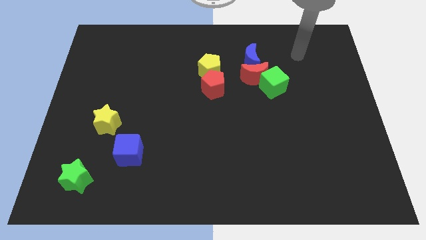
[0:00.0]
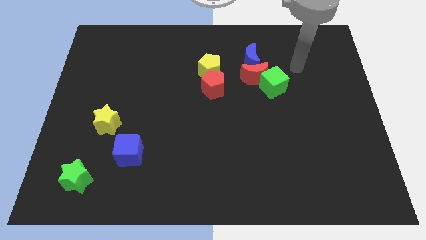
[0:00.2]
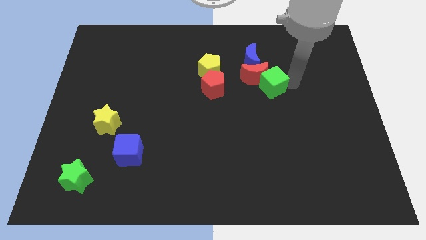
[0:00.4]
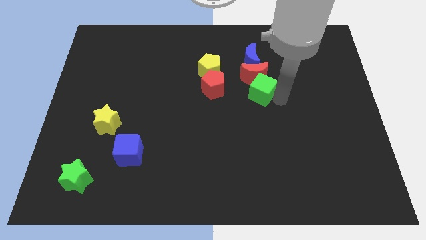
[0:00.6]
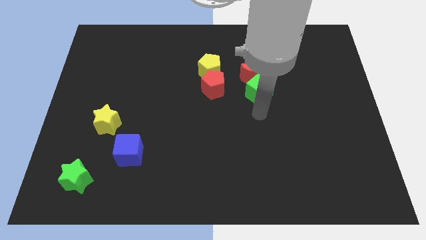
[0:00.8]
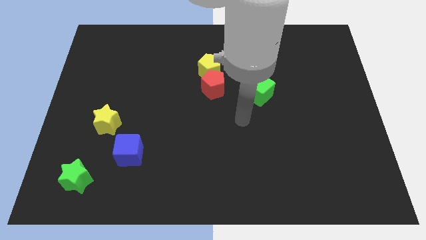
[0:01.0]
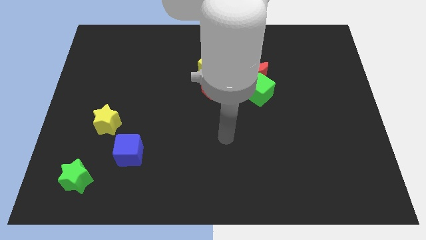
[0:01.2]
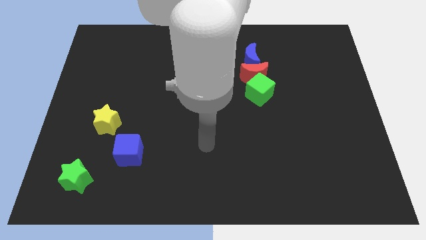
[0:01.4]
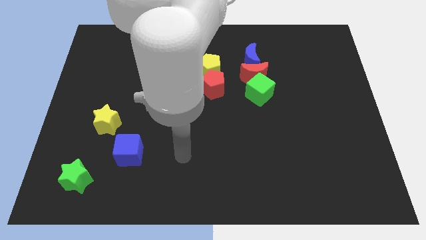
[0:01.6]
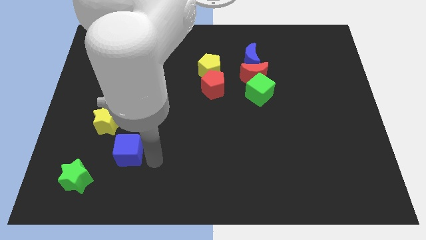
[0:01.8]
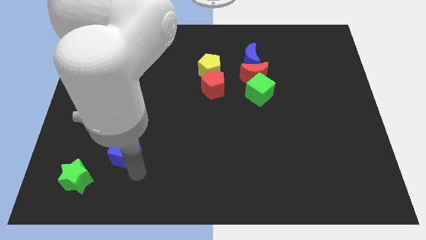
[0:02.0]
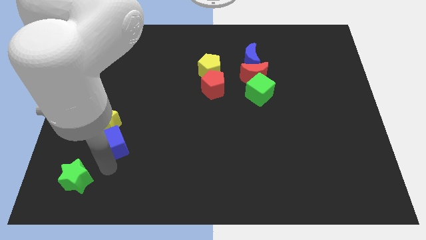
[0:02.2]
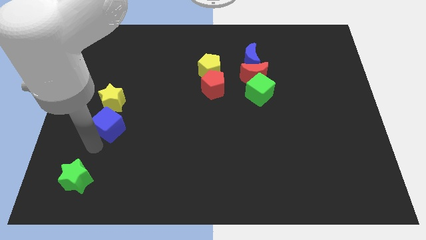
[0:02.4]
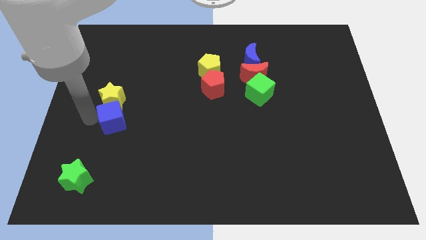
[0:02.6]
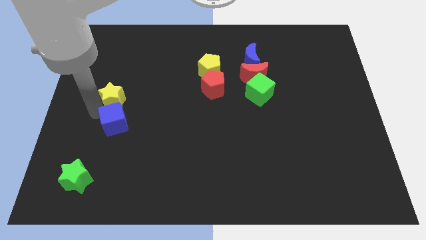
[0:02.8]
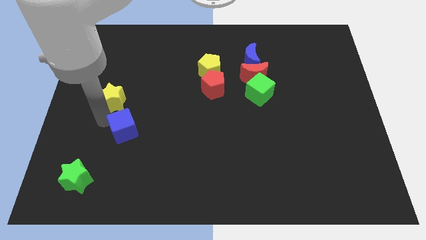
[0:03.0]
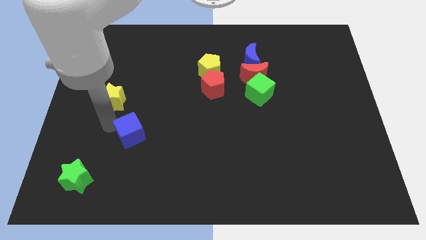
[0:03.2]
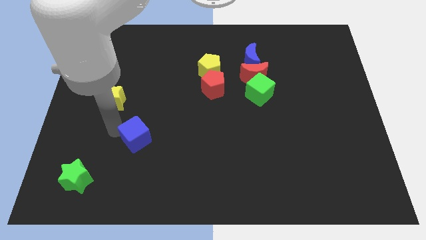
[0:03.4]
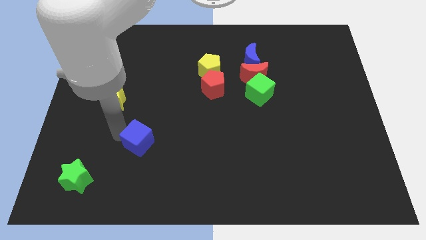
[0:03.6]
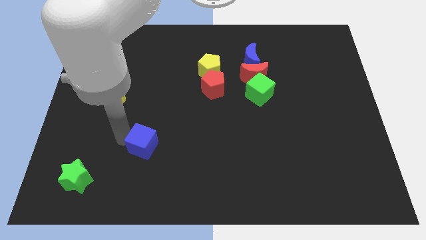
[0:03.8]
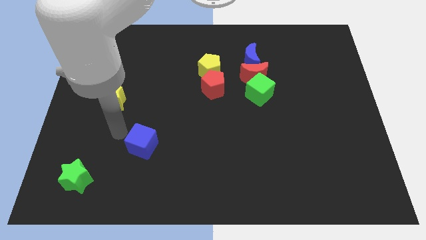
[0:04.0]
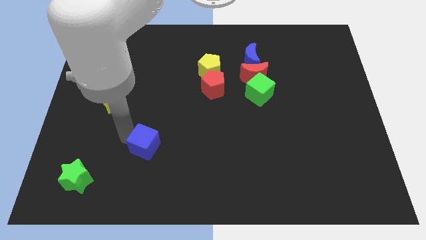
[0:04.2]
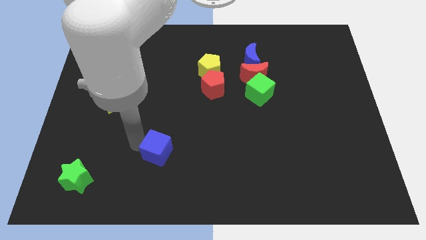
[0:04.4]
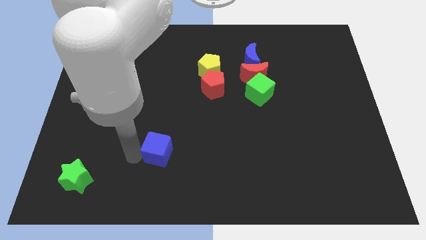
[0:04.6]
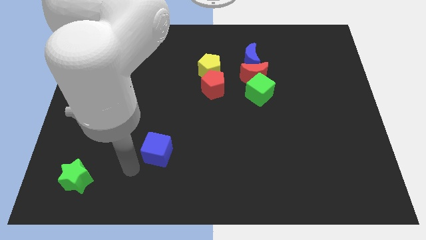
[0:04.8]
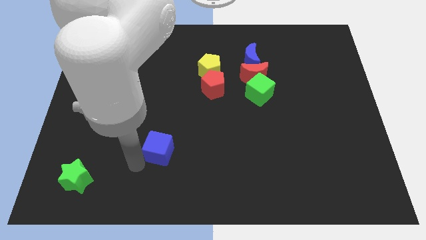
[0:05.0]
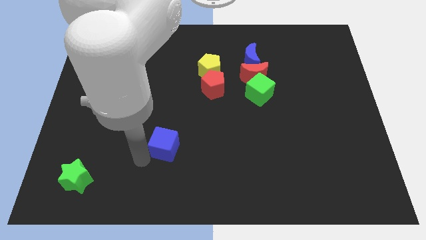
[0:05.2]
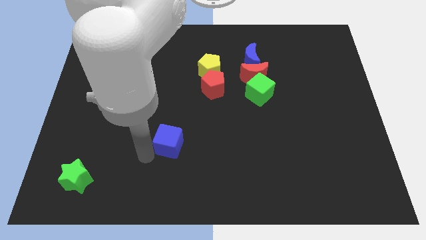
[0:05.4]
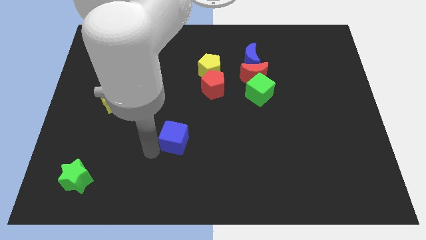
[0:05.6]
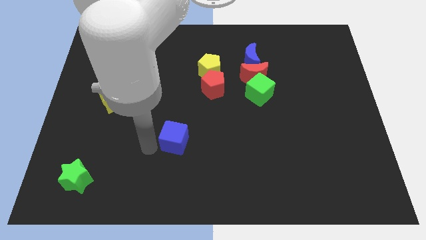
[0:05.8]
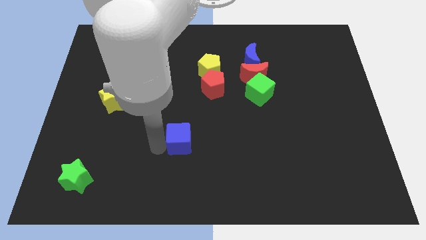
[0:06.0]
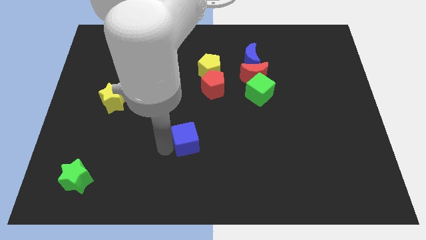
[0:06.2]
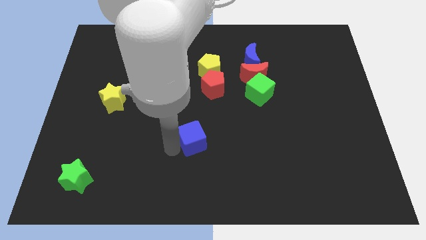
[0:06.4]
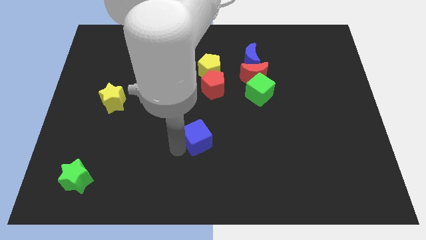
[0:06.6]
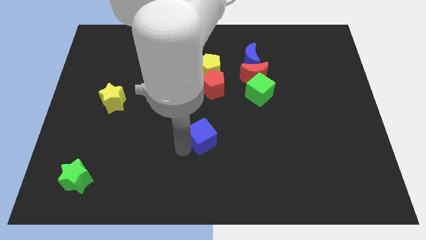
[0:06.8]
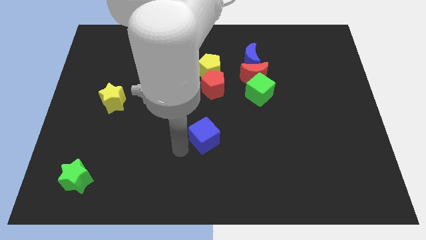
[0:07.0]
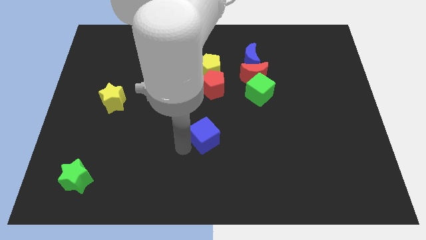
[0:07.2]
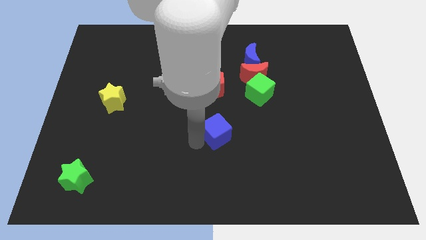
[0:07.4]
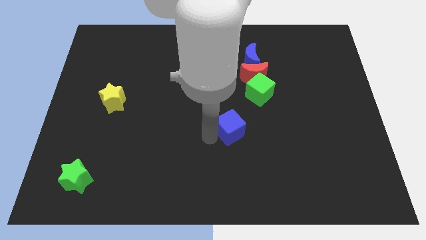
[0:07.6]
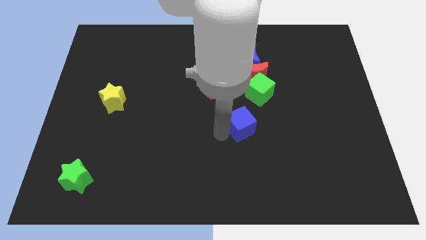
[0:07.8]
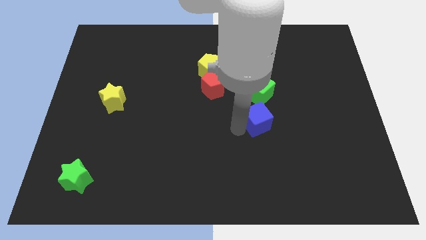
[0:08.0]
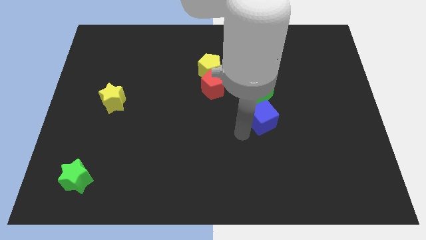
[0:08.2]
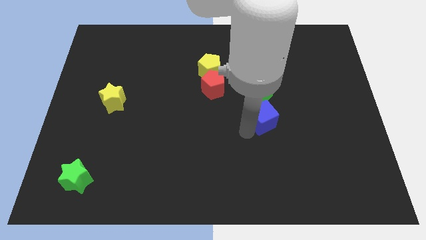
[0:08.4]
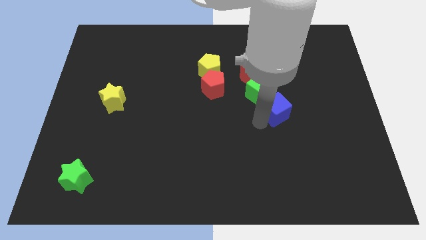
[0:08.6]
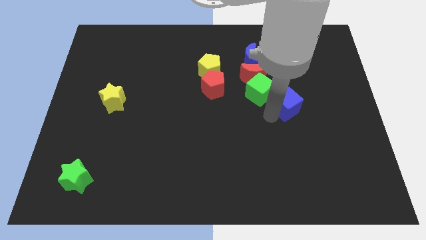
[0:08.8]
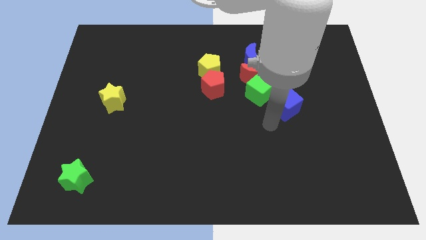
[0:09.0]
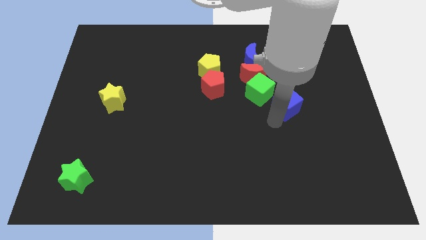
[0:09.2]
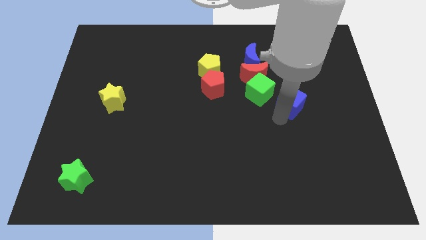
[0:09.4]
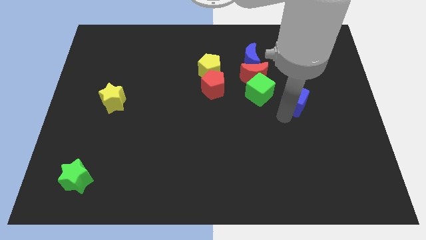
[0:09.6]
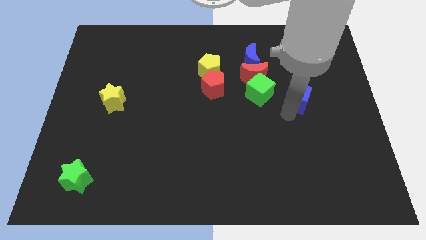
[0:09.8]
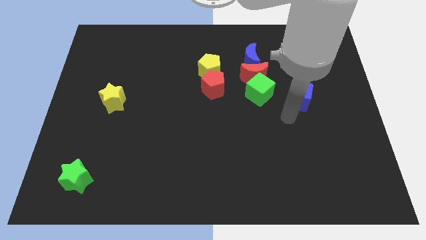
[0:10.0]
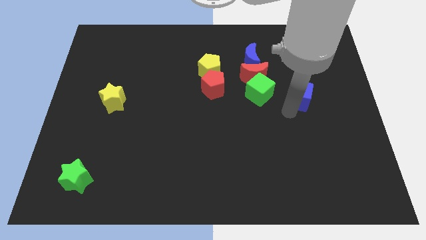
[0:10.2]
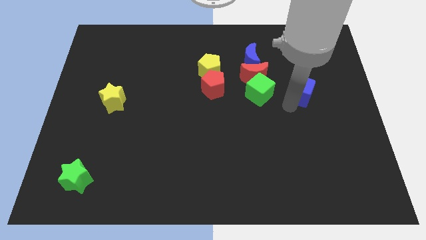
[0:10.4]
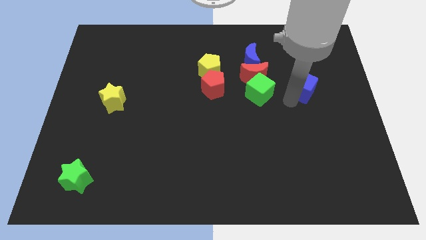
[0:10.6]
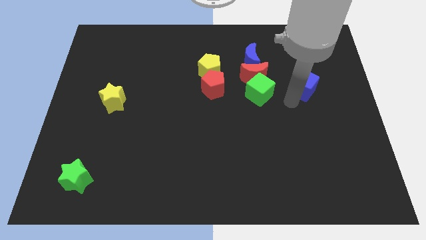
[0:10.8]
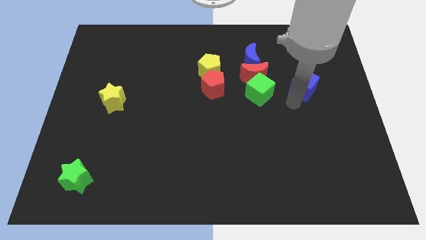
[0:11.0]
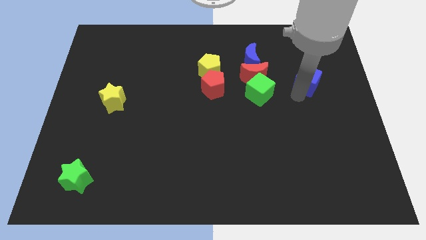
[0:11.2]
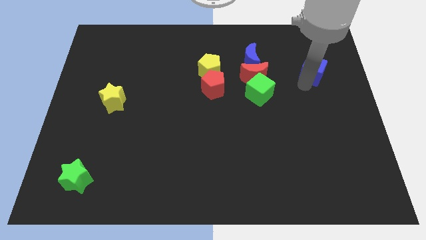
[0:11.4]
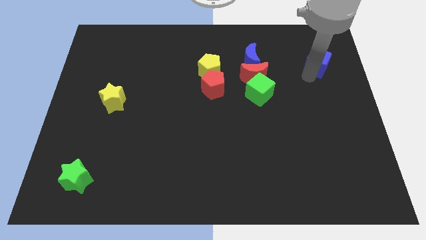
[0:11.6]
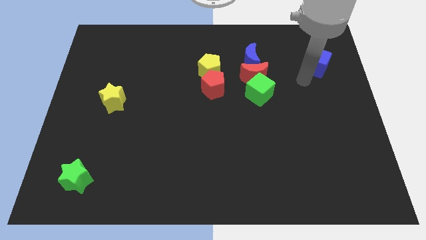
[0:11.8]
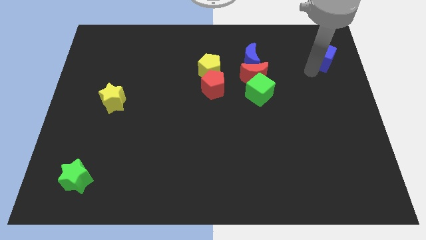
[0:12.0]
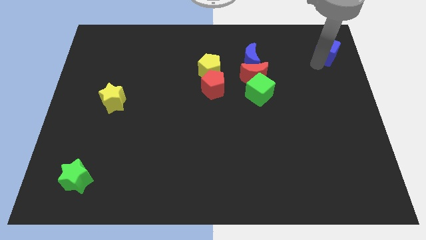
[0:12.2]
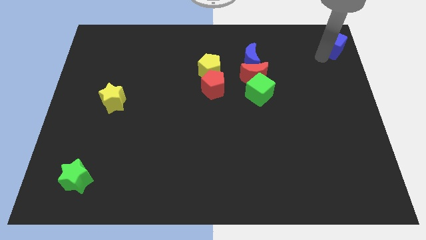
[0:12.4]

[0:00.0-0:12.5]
slide the blue cube to the top right corner

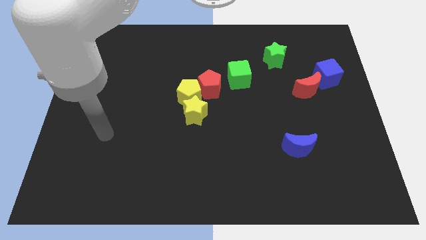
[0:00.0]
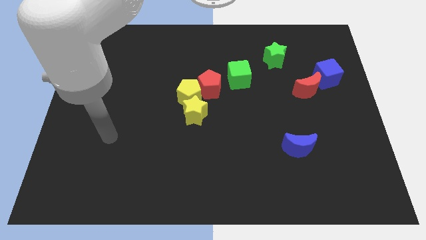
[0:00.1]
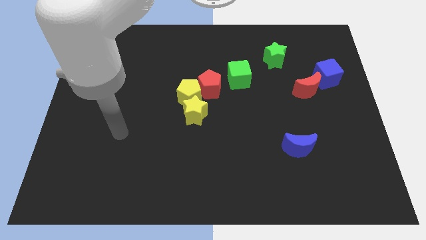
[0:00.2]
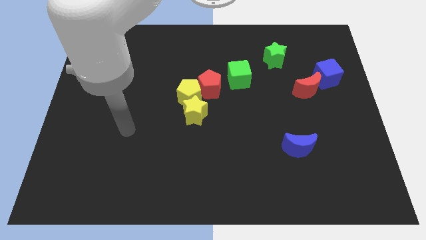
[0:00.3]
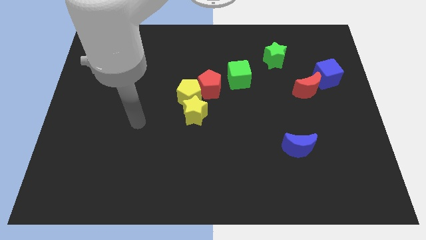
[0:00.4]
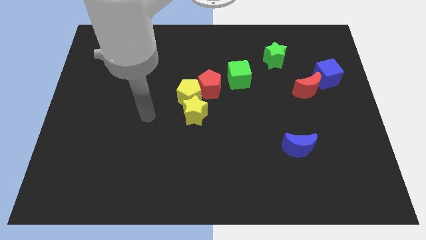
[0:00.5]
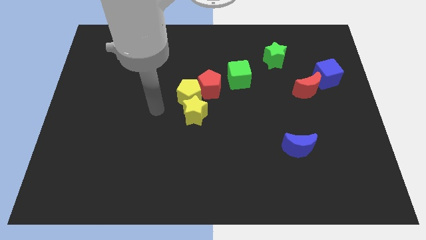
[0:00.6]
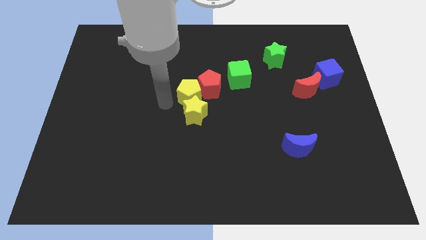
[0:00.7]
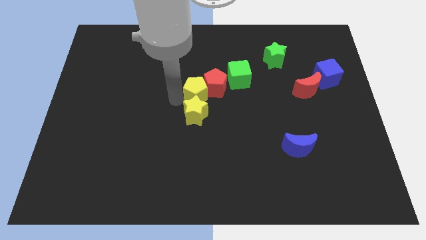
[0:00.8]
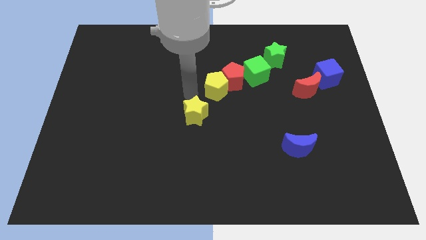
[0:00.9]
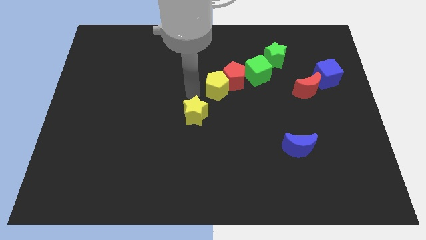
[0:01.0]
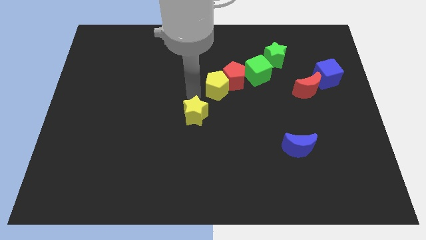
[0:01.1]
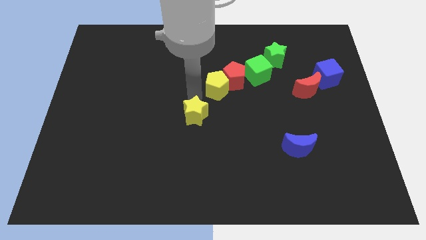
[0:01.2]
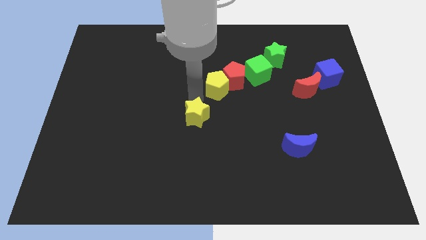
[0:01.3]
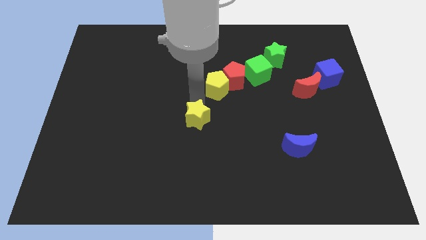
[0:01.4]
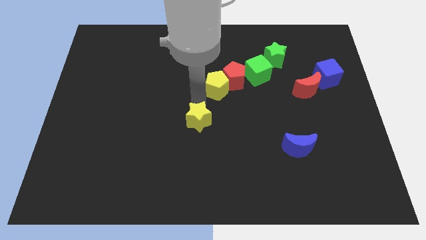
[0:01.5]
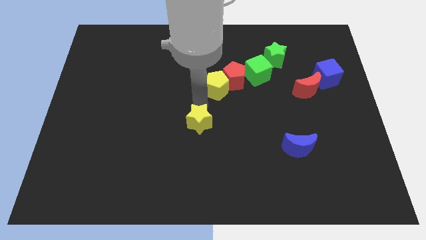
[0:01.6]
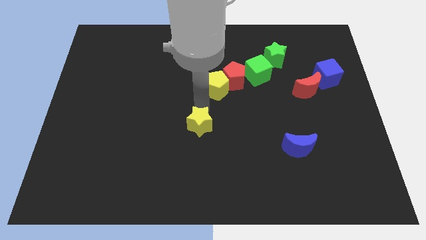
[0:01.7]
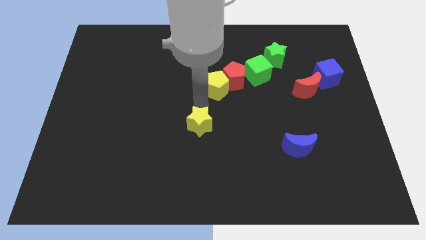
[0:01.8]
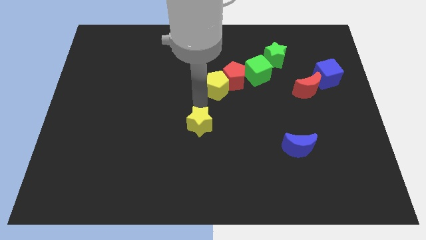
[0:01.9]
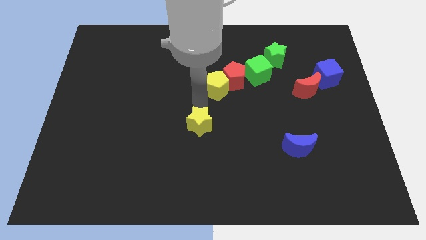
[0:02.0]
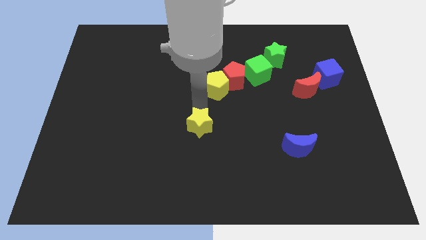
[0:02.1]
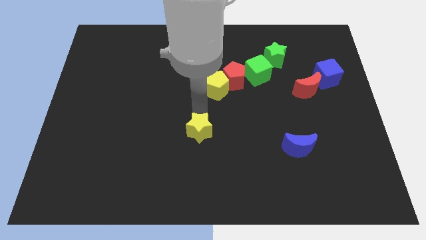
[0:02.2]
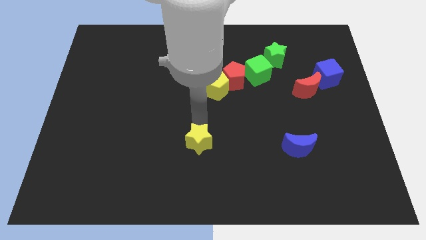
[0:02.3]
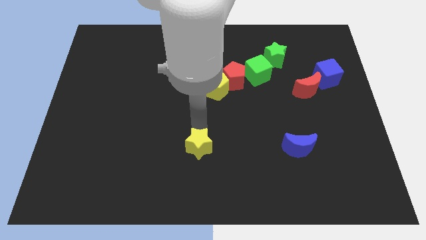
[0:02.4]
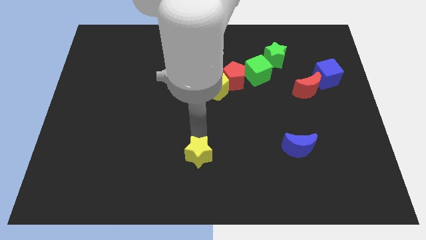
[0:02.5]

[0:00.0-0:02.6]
push the yellow star to the bottom side
